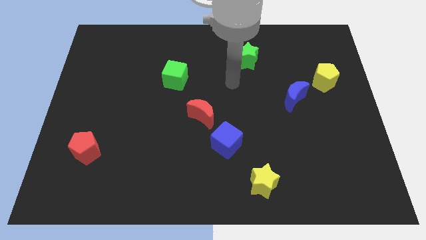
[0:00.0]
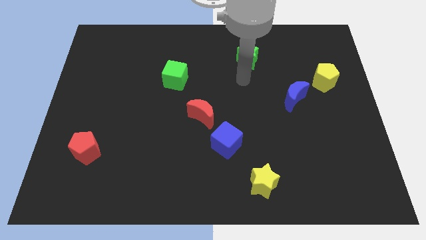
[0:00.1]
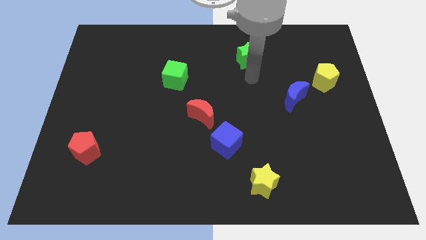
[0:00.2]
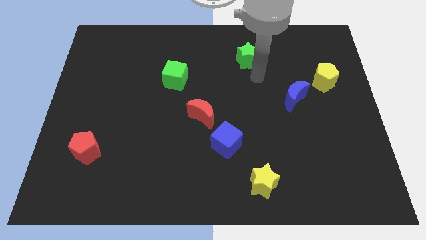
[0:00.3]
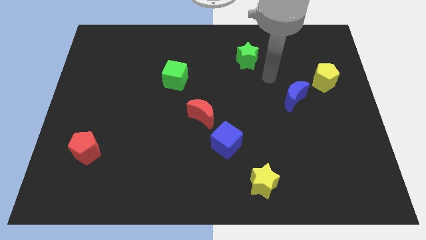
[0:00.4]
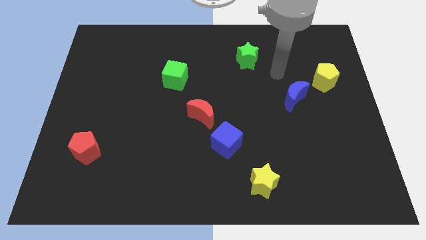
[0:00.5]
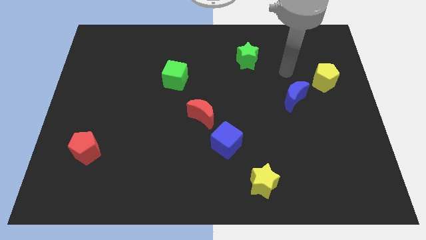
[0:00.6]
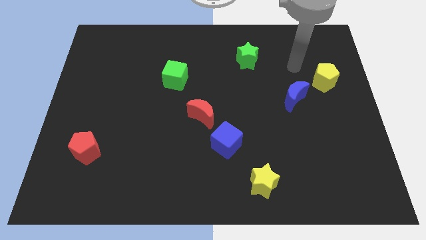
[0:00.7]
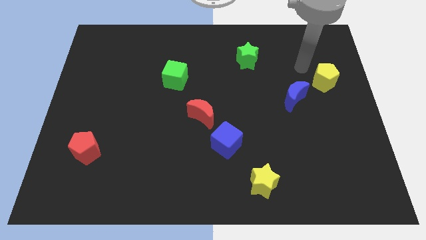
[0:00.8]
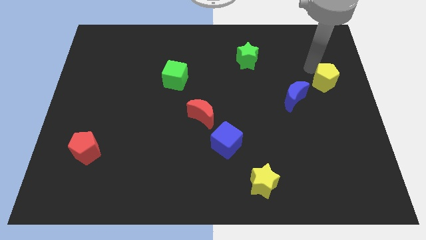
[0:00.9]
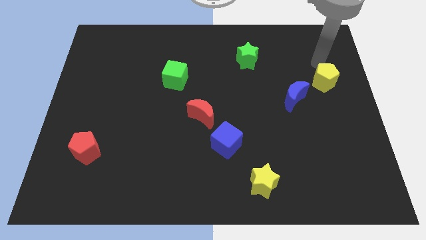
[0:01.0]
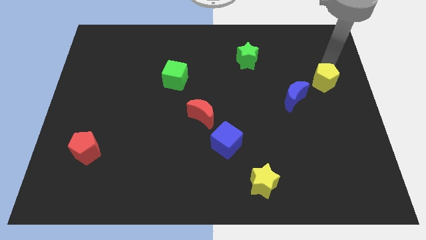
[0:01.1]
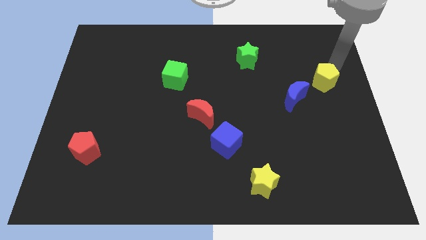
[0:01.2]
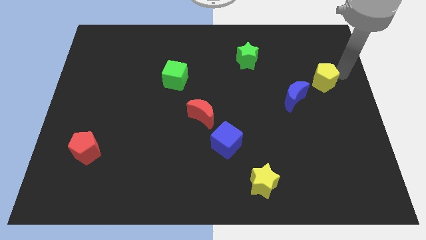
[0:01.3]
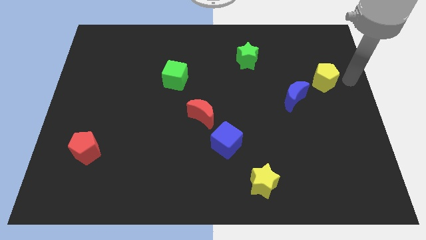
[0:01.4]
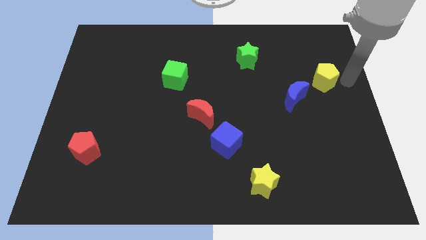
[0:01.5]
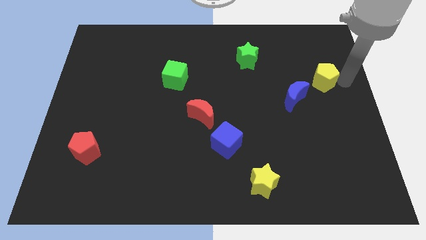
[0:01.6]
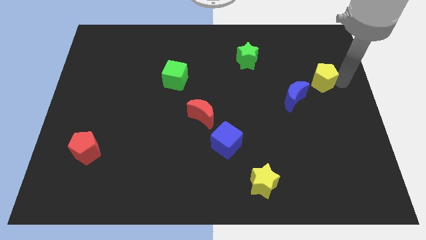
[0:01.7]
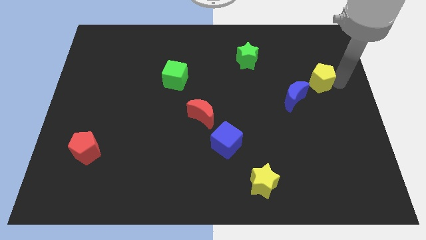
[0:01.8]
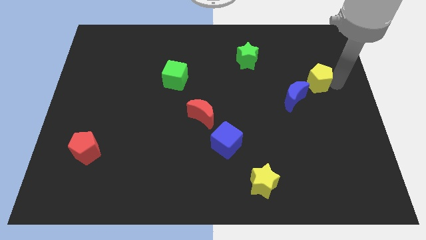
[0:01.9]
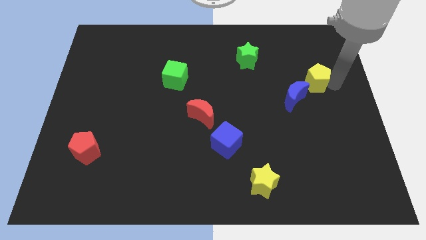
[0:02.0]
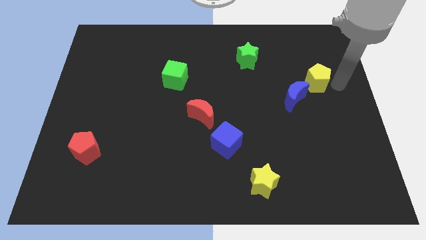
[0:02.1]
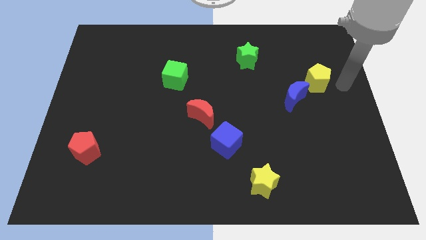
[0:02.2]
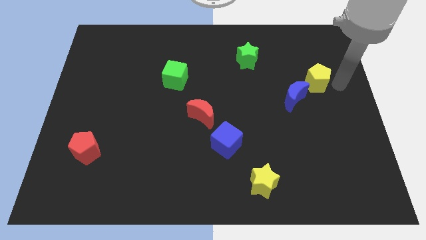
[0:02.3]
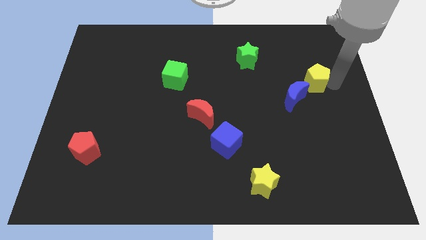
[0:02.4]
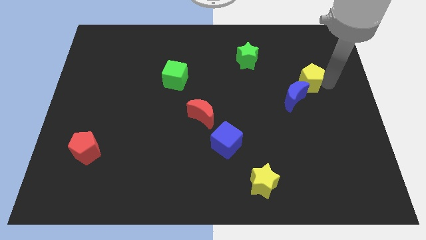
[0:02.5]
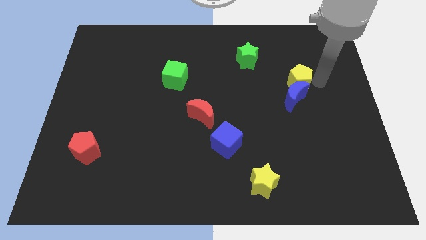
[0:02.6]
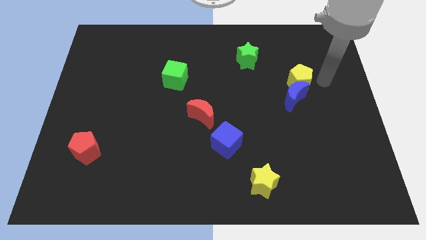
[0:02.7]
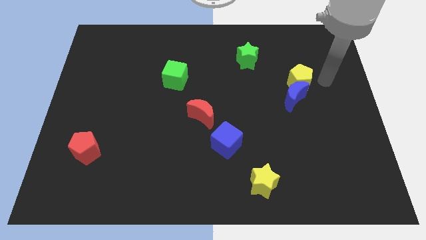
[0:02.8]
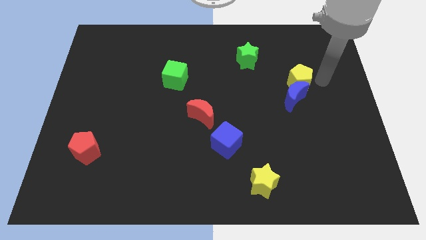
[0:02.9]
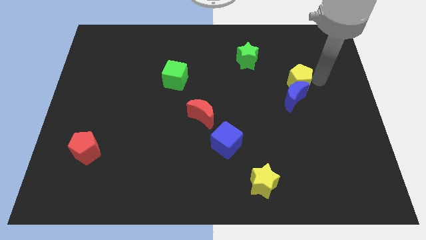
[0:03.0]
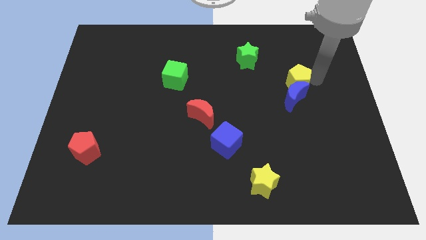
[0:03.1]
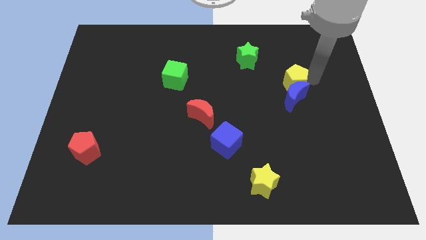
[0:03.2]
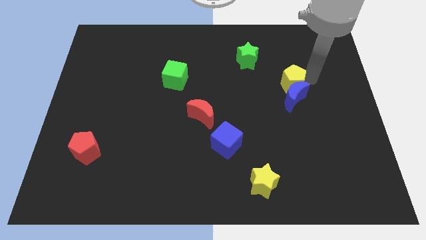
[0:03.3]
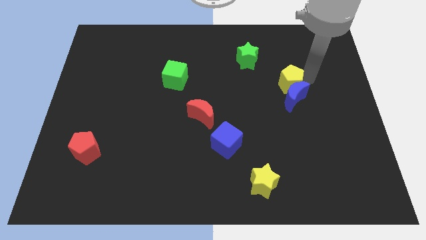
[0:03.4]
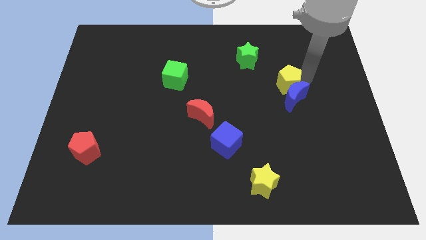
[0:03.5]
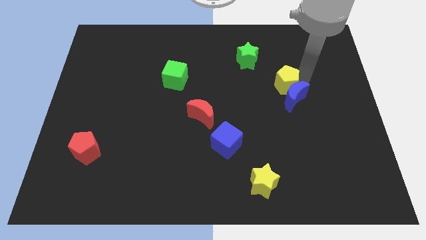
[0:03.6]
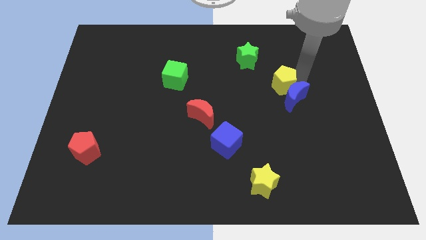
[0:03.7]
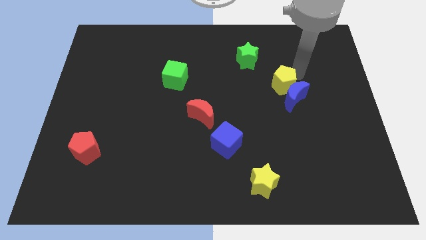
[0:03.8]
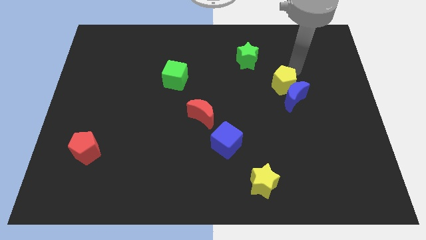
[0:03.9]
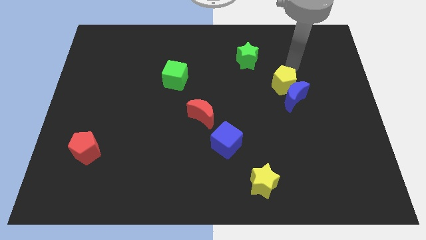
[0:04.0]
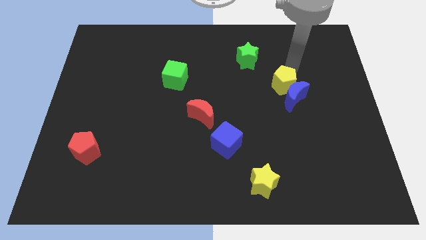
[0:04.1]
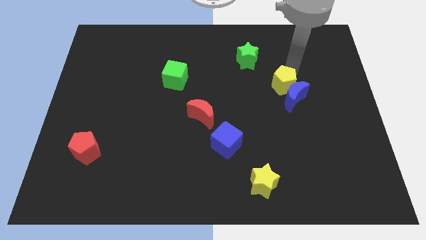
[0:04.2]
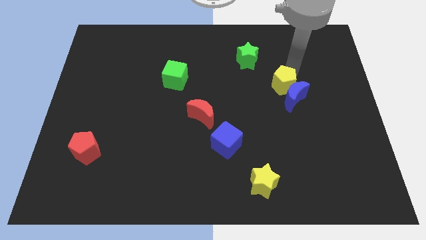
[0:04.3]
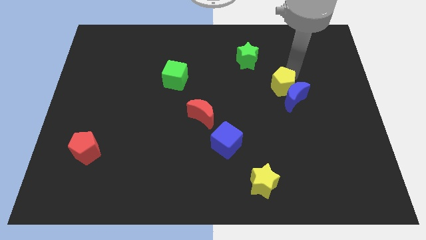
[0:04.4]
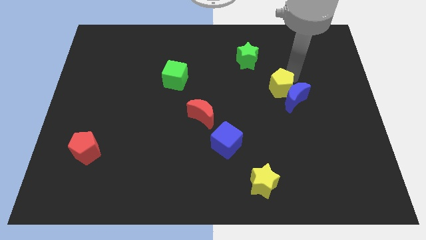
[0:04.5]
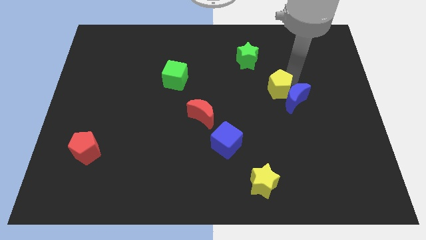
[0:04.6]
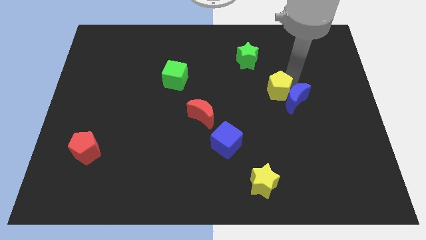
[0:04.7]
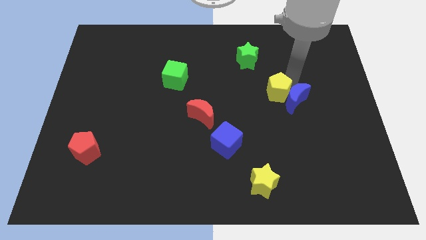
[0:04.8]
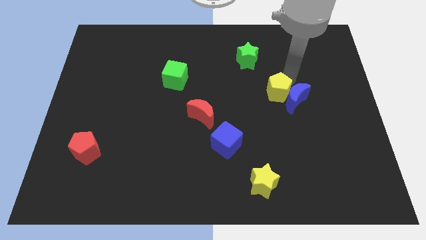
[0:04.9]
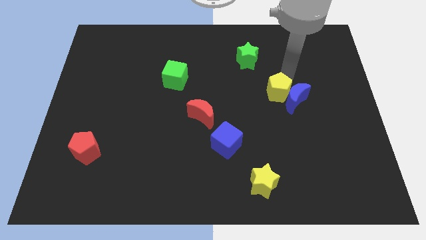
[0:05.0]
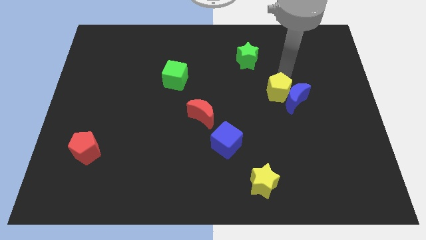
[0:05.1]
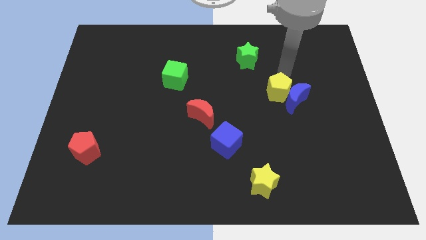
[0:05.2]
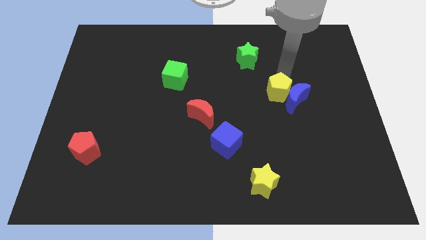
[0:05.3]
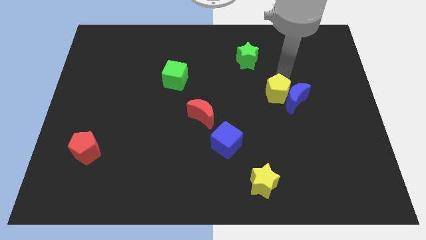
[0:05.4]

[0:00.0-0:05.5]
slide the yellow pentagon to the bottom left of the blue moon

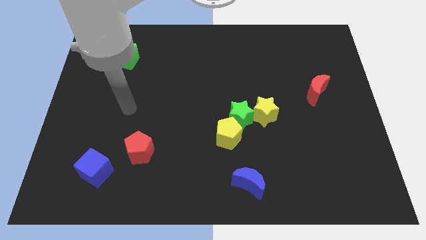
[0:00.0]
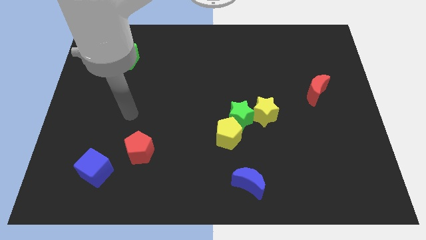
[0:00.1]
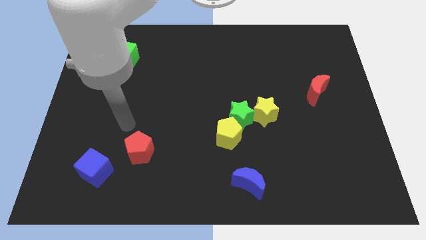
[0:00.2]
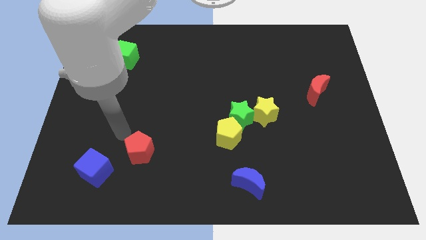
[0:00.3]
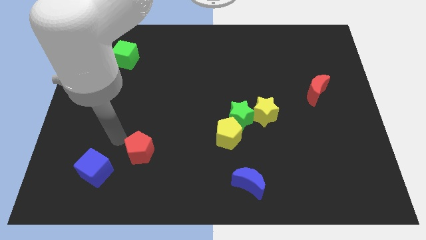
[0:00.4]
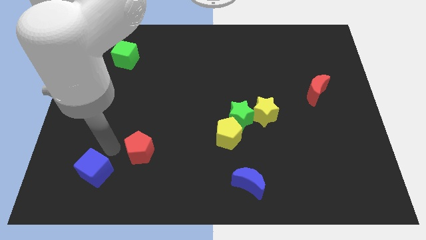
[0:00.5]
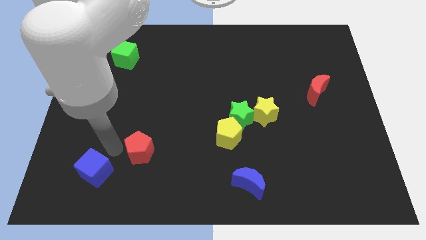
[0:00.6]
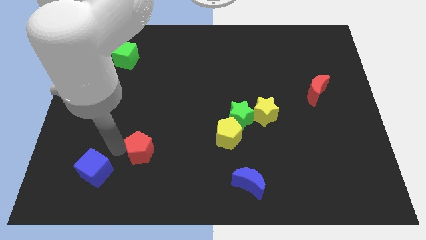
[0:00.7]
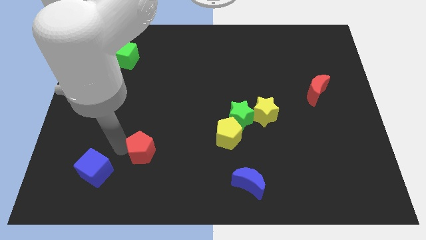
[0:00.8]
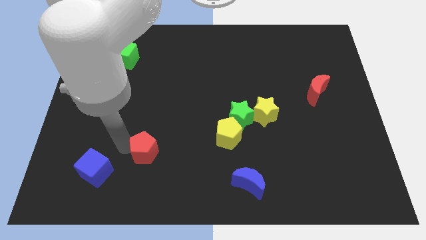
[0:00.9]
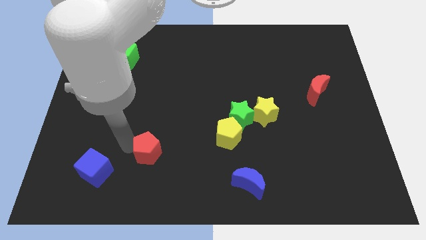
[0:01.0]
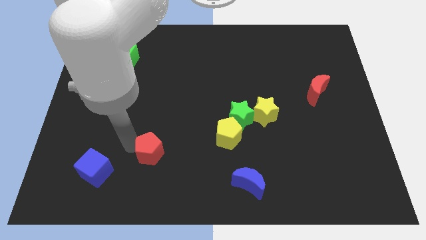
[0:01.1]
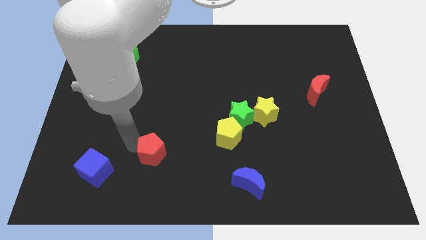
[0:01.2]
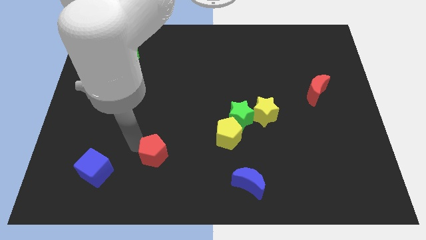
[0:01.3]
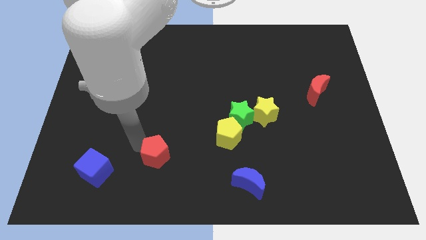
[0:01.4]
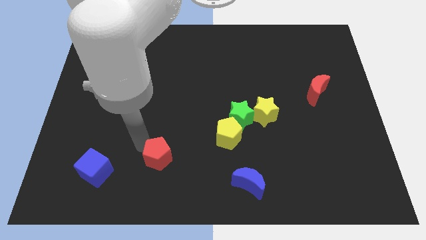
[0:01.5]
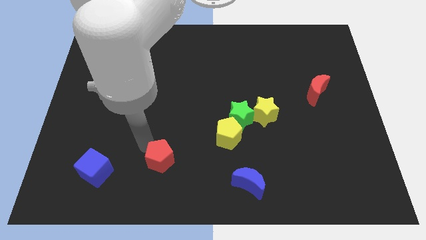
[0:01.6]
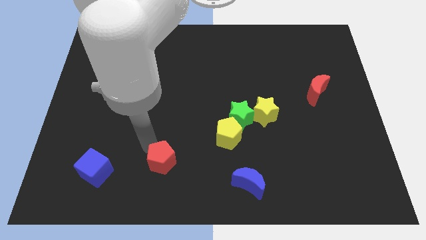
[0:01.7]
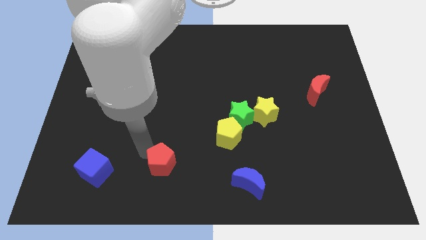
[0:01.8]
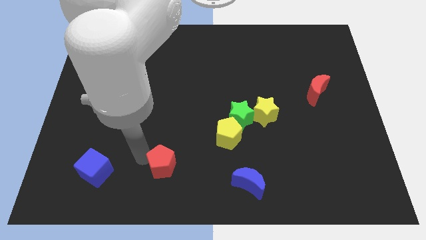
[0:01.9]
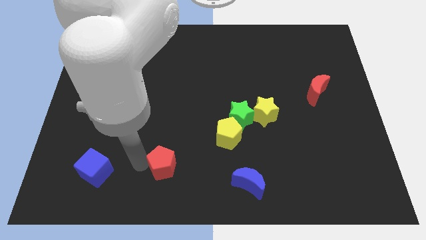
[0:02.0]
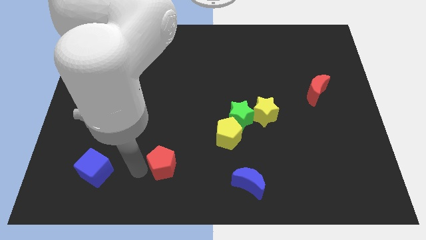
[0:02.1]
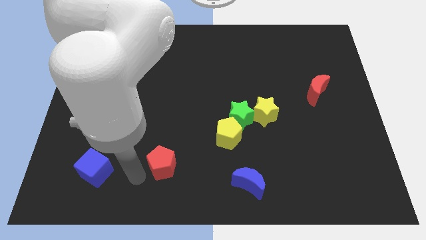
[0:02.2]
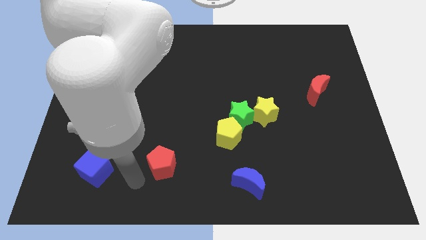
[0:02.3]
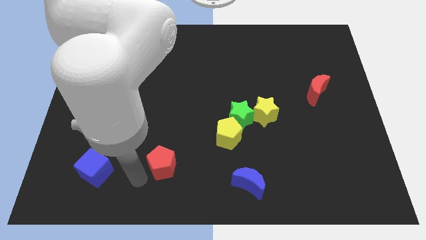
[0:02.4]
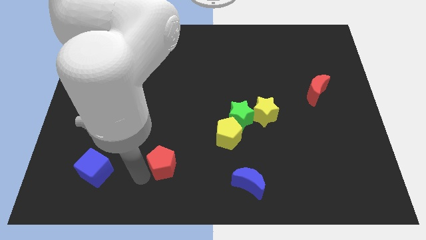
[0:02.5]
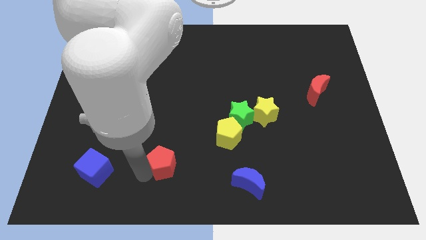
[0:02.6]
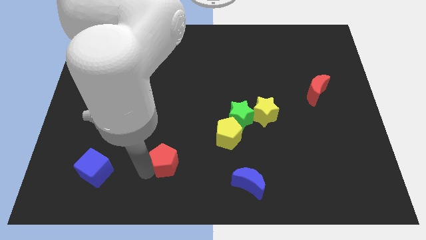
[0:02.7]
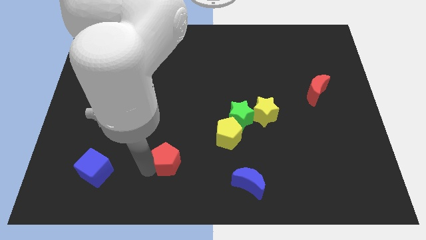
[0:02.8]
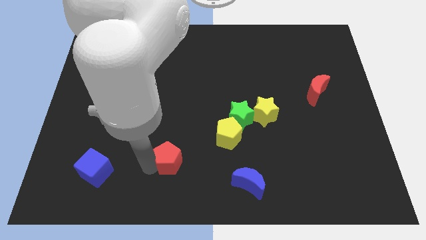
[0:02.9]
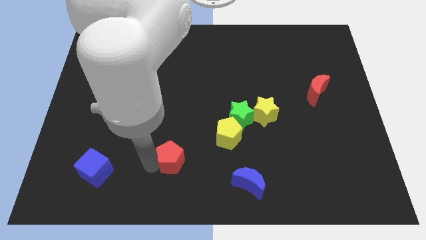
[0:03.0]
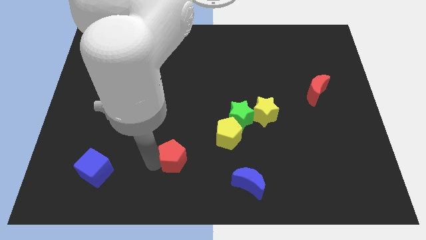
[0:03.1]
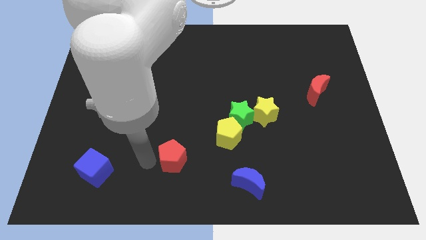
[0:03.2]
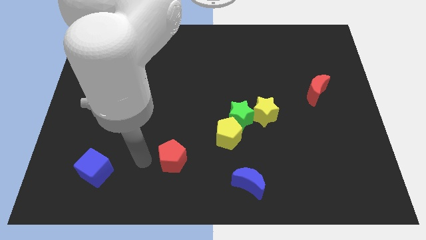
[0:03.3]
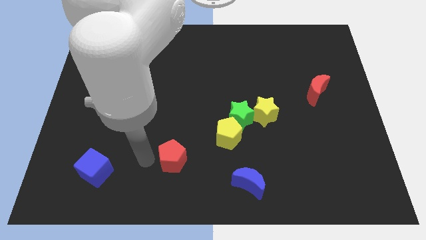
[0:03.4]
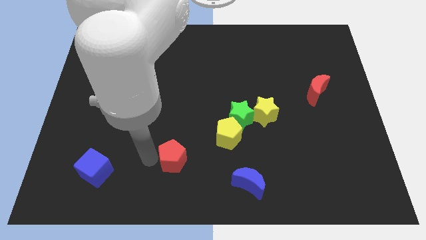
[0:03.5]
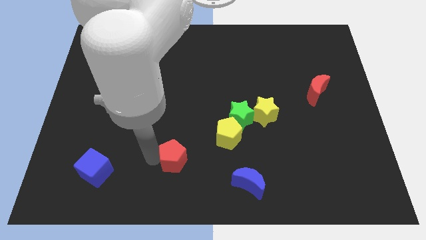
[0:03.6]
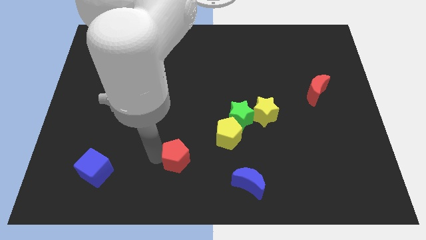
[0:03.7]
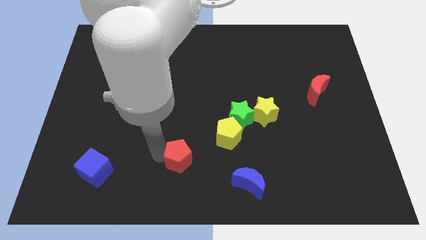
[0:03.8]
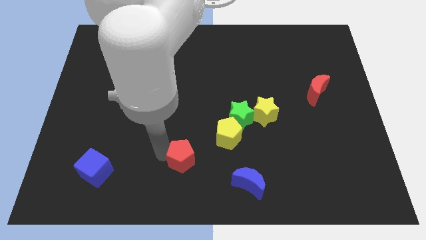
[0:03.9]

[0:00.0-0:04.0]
put the red pentagon to the bottom left side of the yellow pentagon
